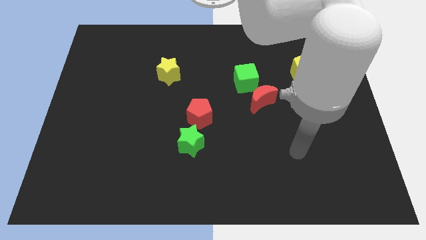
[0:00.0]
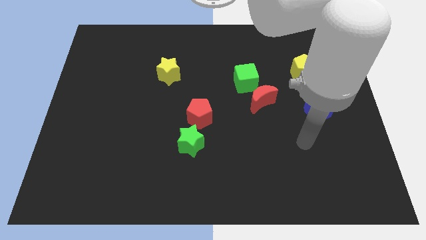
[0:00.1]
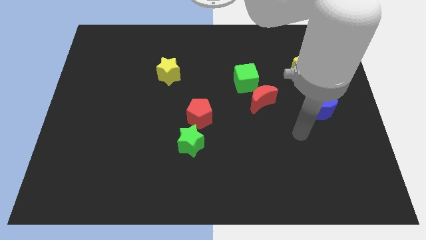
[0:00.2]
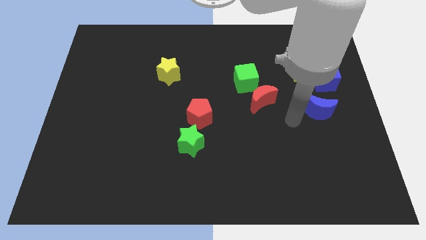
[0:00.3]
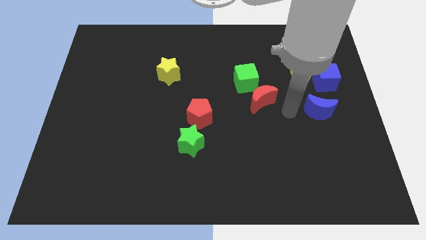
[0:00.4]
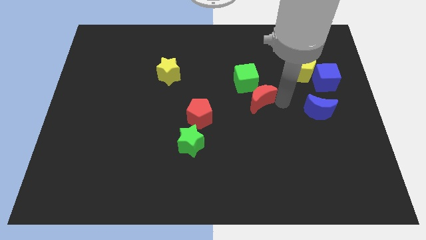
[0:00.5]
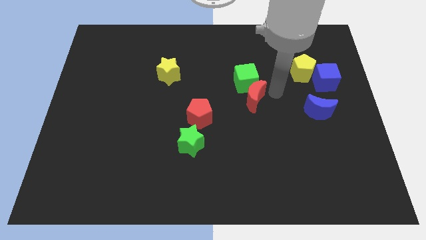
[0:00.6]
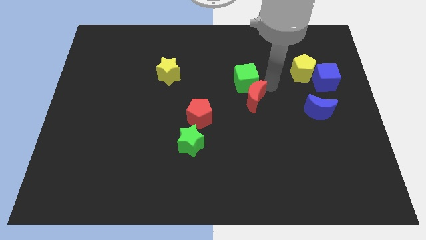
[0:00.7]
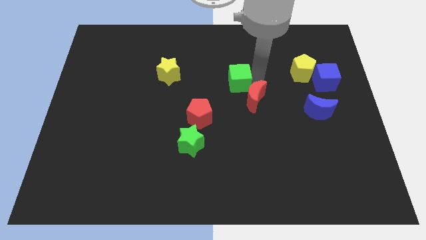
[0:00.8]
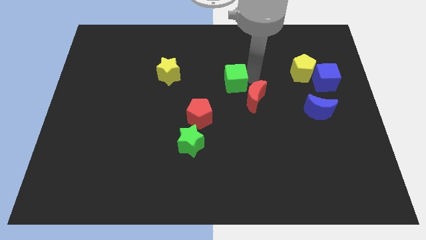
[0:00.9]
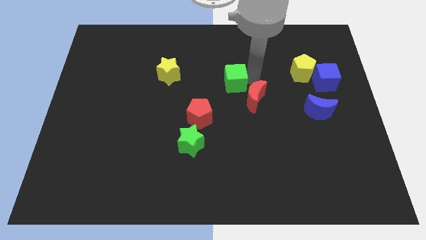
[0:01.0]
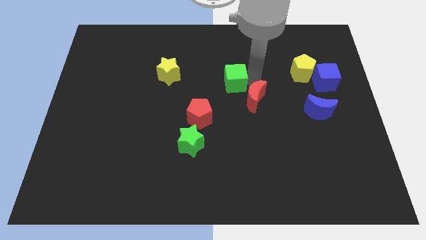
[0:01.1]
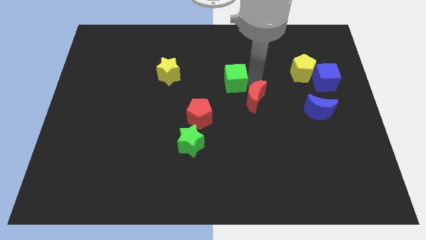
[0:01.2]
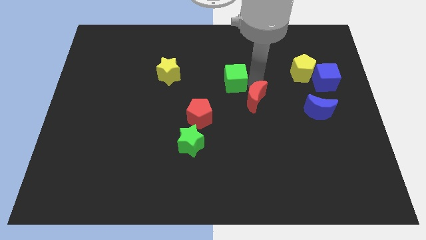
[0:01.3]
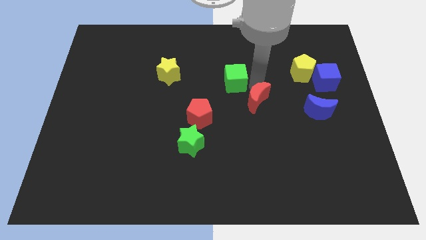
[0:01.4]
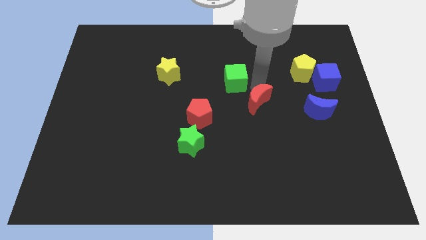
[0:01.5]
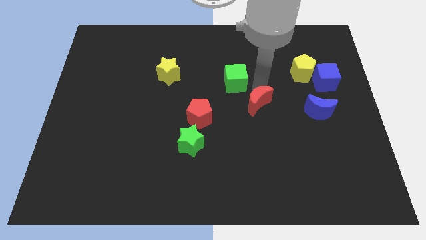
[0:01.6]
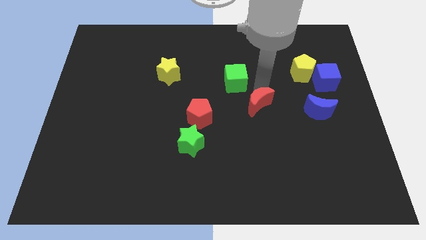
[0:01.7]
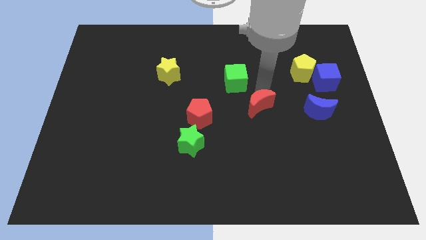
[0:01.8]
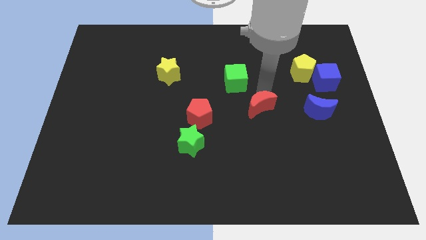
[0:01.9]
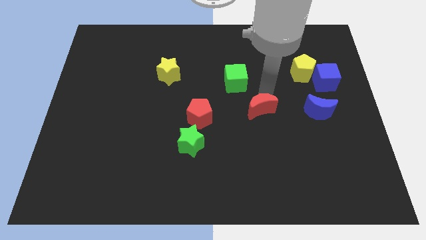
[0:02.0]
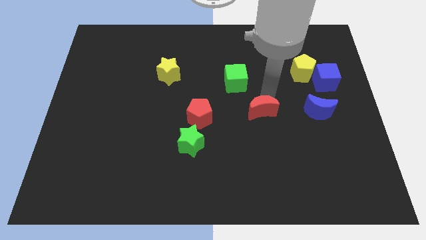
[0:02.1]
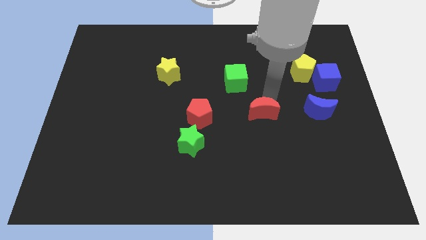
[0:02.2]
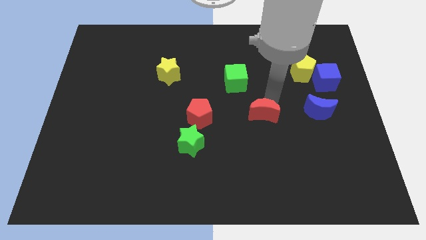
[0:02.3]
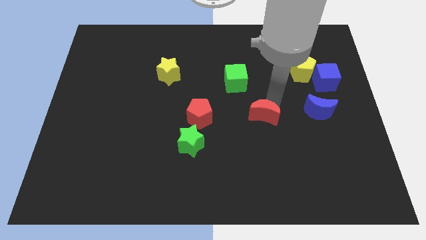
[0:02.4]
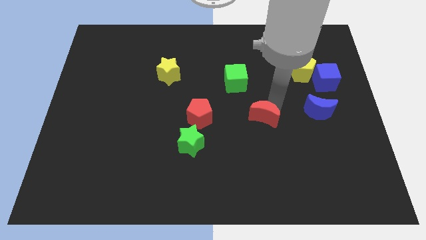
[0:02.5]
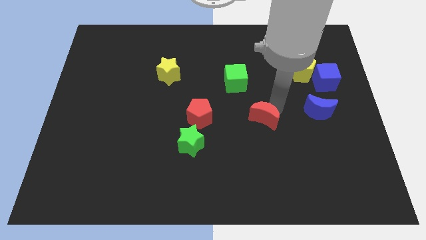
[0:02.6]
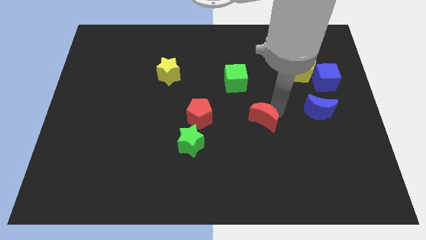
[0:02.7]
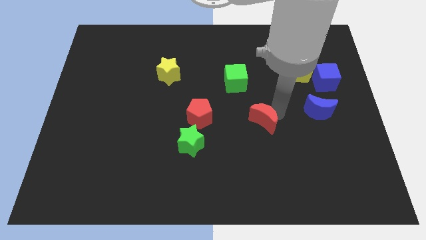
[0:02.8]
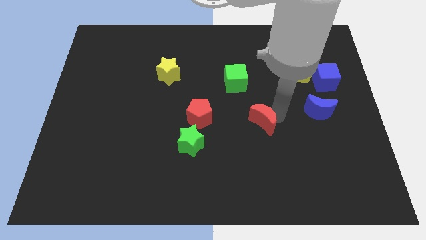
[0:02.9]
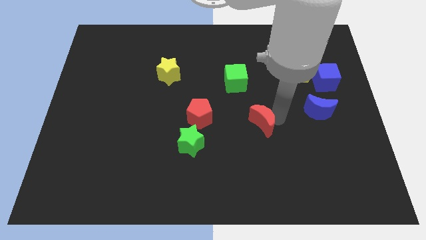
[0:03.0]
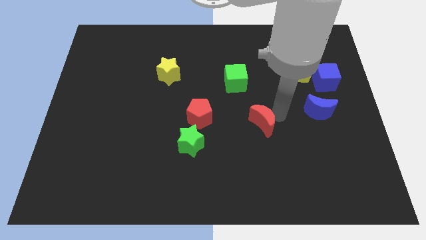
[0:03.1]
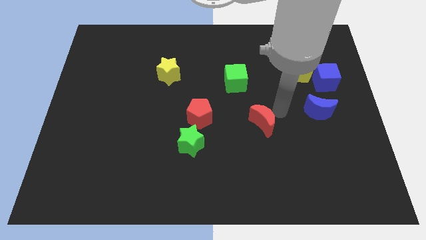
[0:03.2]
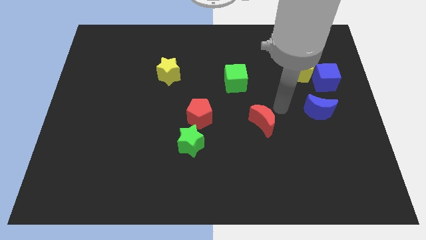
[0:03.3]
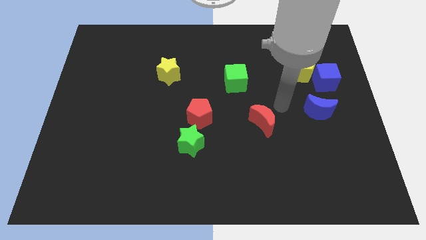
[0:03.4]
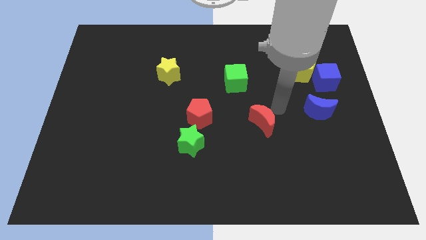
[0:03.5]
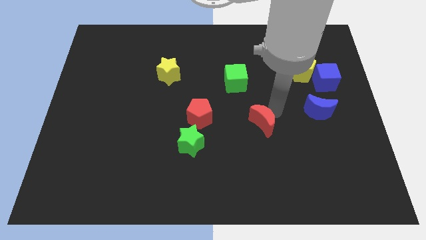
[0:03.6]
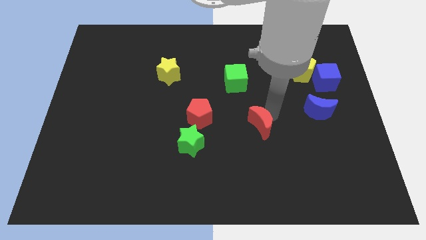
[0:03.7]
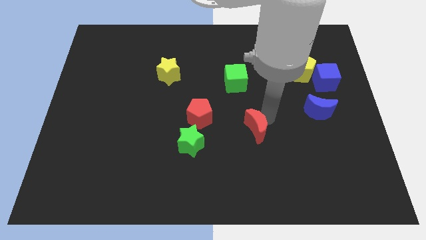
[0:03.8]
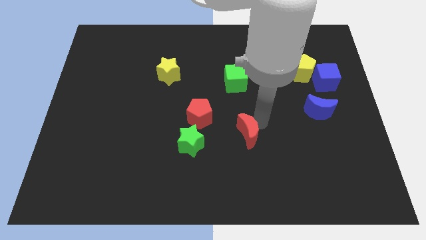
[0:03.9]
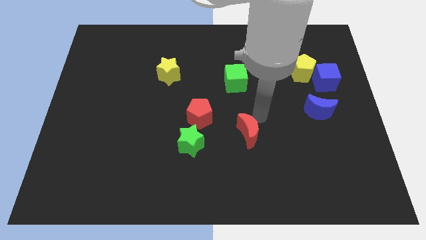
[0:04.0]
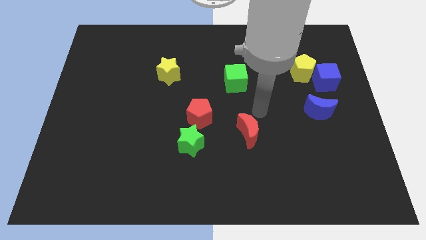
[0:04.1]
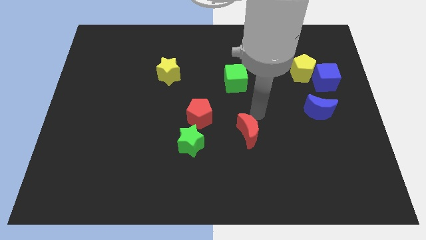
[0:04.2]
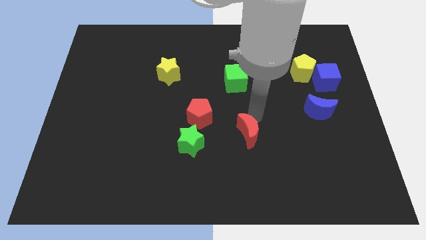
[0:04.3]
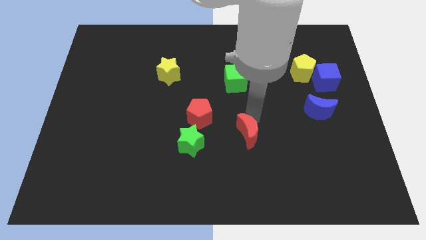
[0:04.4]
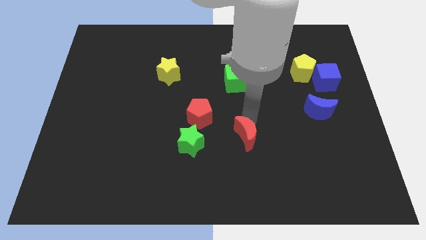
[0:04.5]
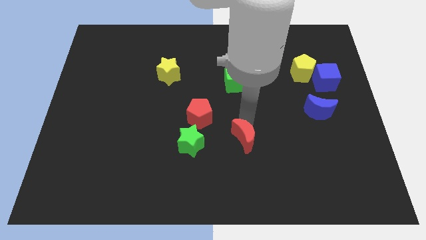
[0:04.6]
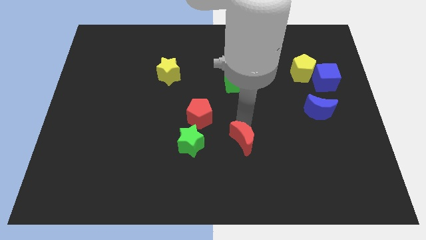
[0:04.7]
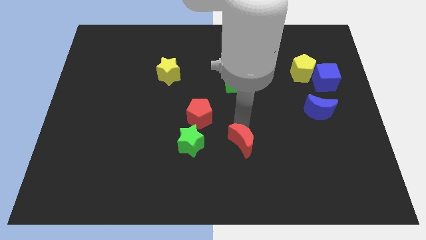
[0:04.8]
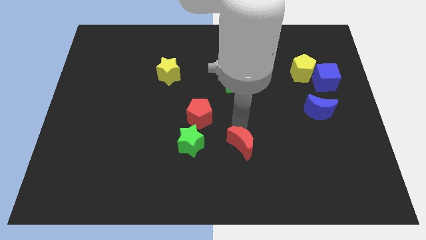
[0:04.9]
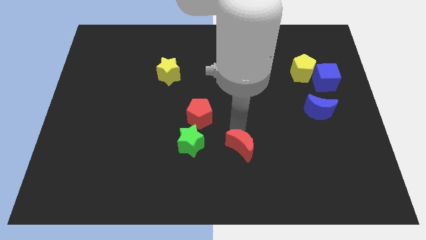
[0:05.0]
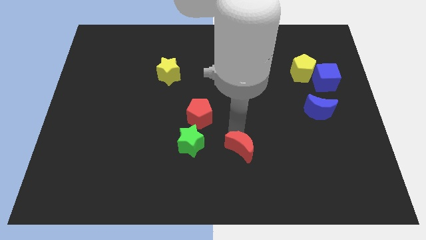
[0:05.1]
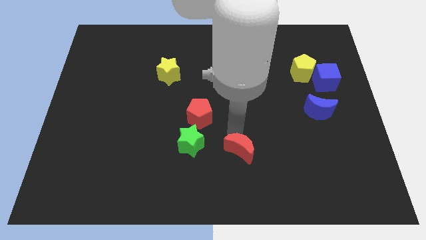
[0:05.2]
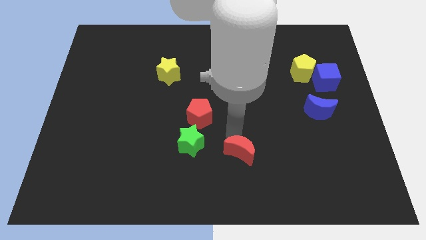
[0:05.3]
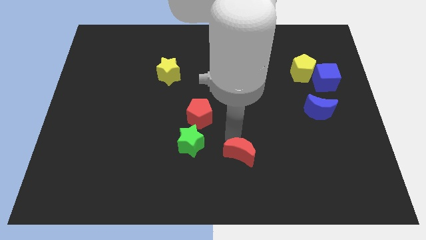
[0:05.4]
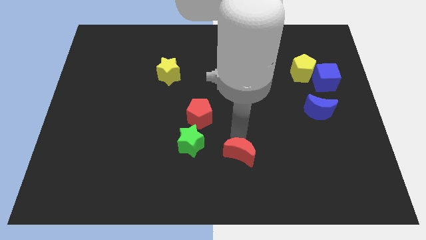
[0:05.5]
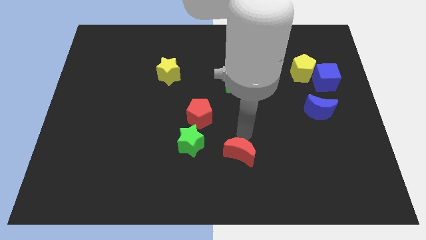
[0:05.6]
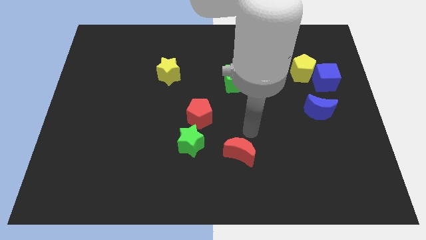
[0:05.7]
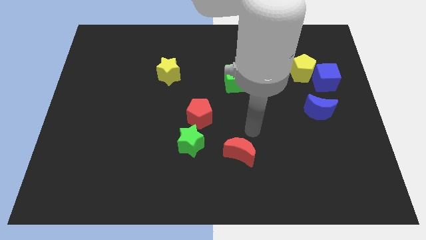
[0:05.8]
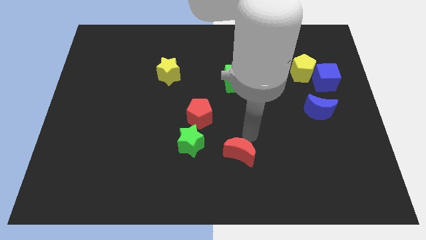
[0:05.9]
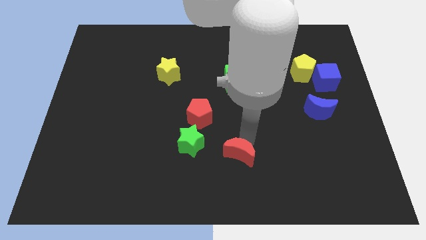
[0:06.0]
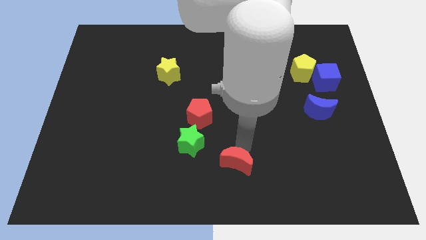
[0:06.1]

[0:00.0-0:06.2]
slide the red moon to the bottom
